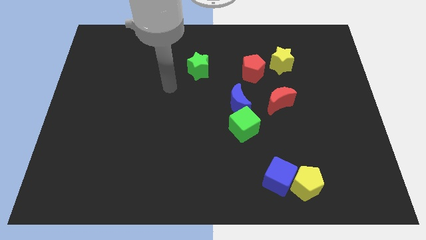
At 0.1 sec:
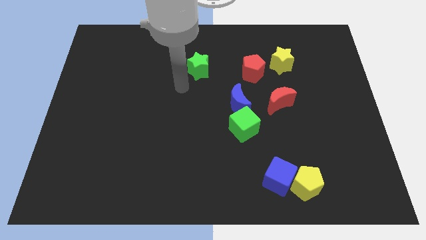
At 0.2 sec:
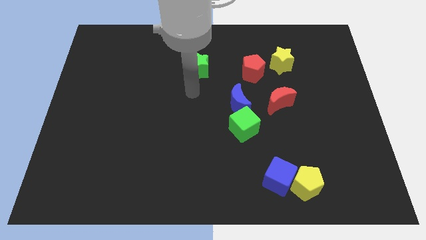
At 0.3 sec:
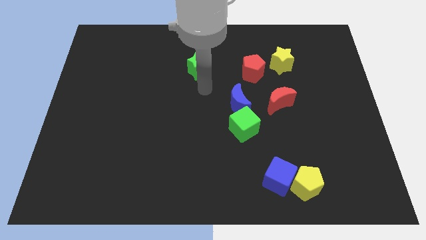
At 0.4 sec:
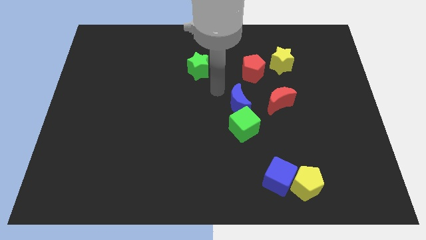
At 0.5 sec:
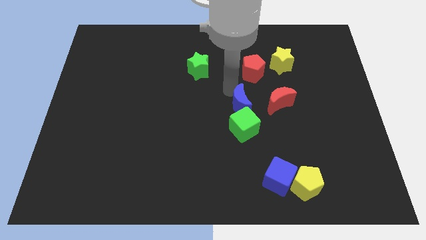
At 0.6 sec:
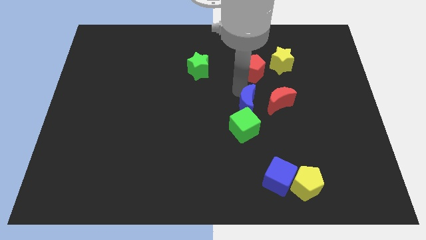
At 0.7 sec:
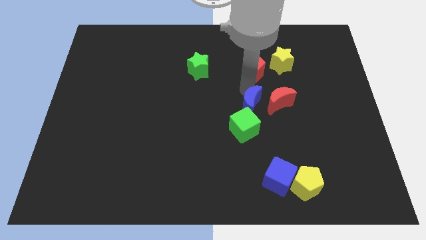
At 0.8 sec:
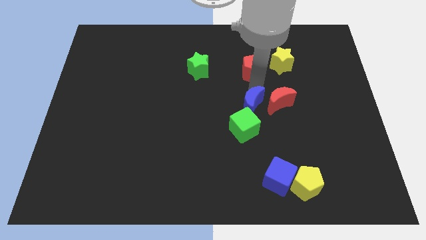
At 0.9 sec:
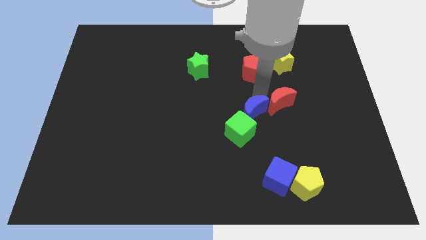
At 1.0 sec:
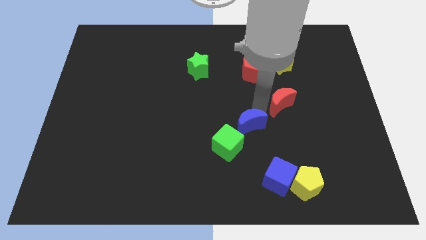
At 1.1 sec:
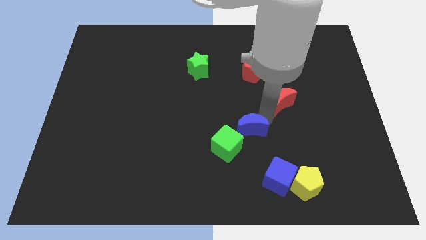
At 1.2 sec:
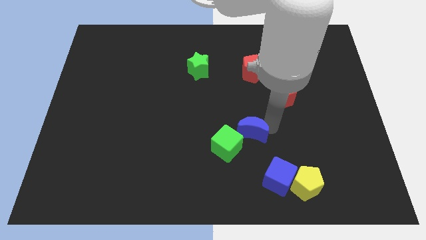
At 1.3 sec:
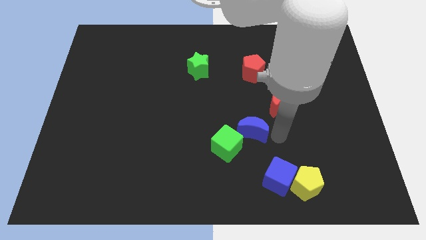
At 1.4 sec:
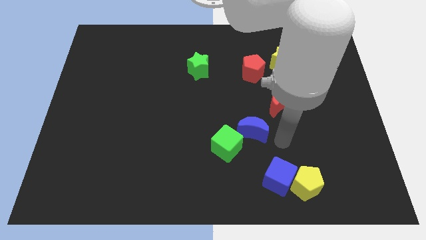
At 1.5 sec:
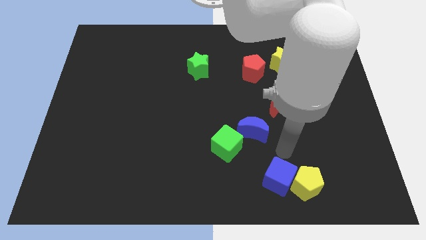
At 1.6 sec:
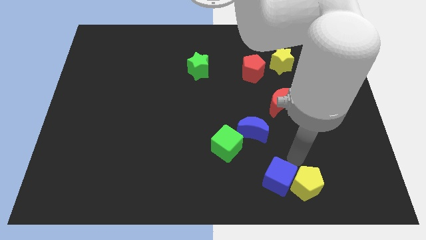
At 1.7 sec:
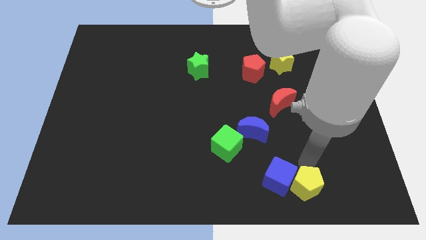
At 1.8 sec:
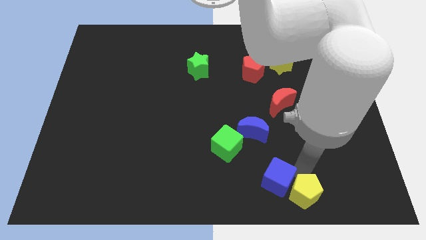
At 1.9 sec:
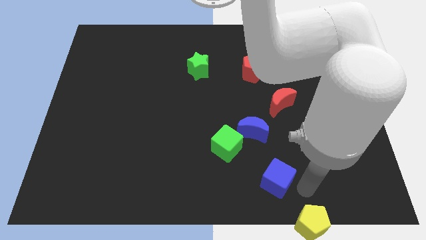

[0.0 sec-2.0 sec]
move the blue cube away from the yellow pentagon

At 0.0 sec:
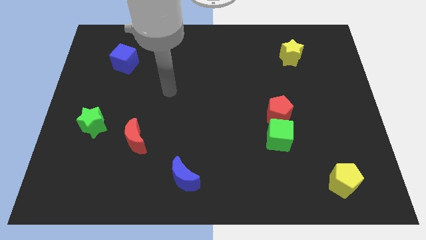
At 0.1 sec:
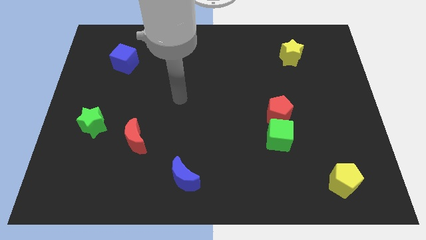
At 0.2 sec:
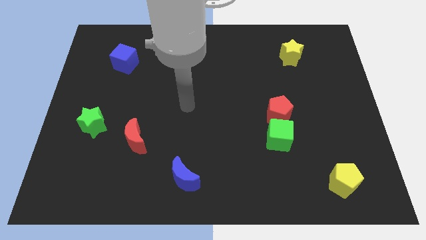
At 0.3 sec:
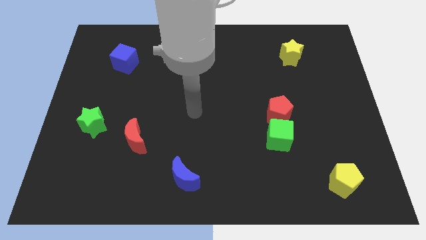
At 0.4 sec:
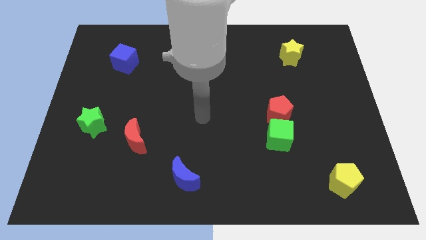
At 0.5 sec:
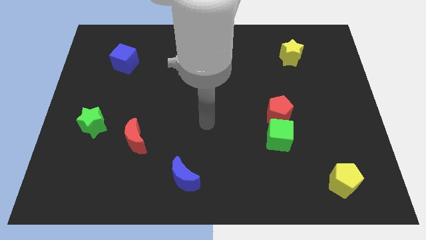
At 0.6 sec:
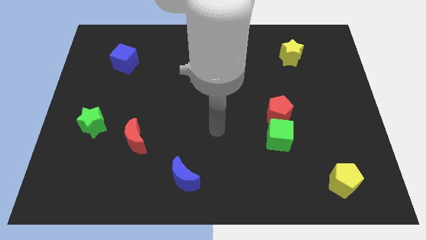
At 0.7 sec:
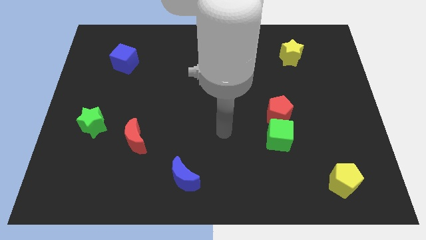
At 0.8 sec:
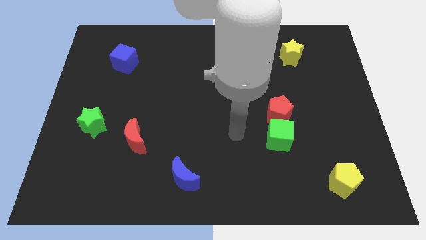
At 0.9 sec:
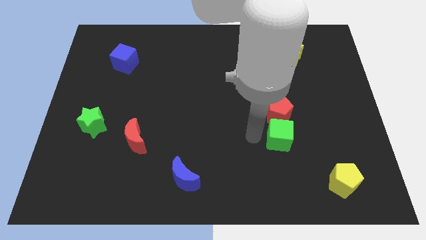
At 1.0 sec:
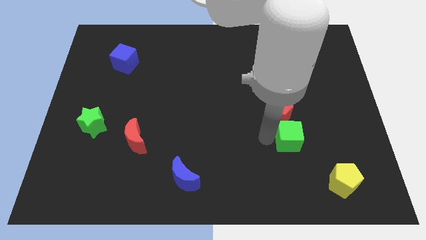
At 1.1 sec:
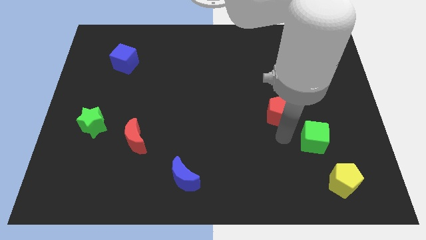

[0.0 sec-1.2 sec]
separate the red pentagon from the green cube

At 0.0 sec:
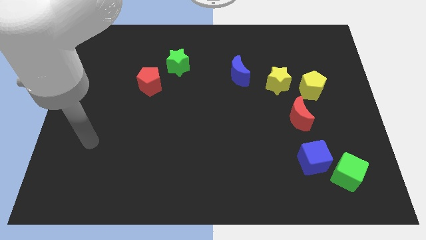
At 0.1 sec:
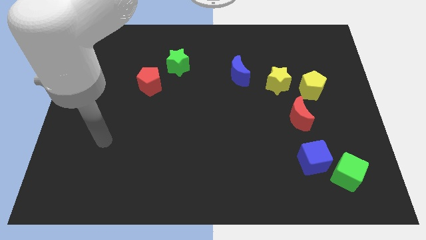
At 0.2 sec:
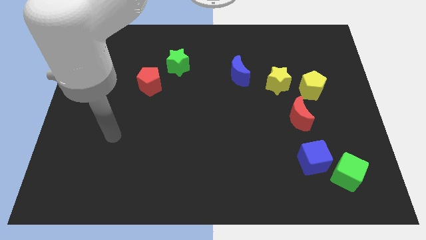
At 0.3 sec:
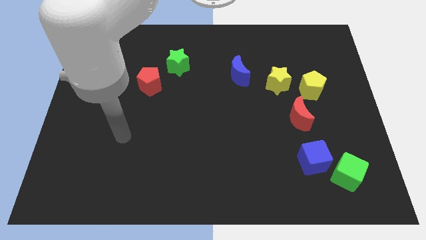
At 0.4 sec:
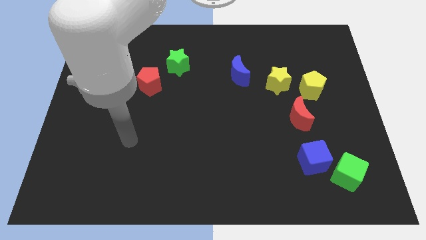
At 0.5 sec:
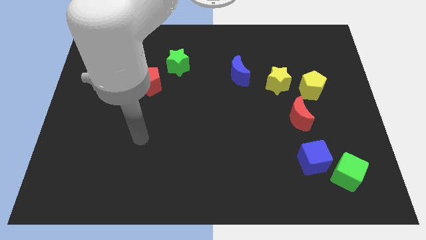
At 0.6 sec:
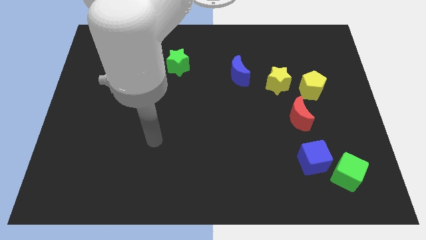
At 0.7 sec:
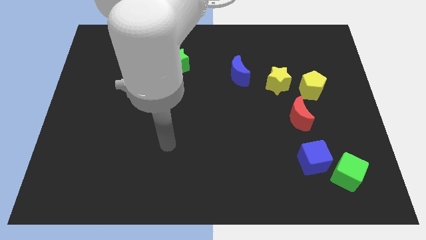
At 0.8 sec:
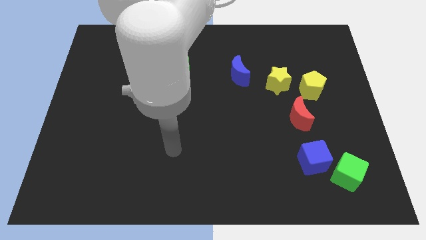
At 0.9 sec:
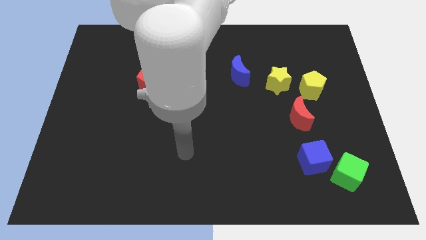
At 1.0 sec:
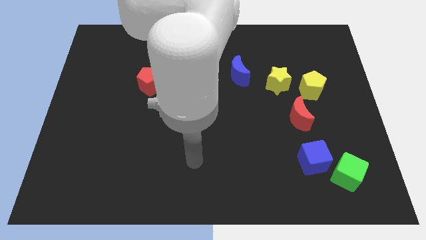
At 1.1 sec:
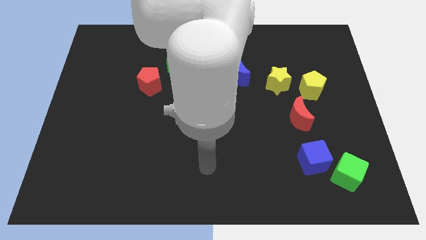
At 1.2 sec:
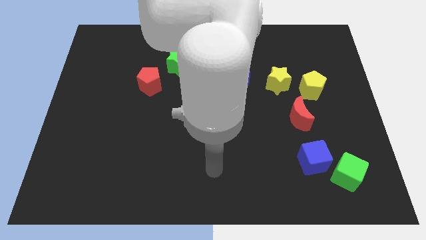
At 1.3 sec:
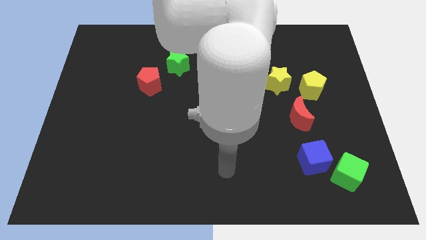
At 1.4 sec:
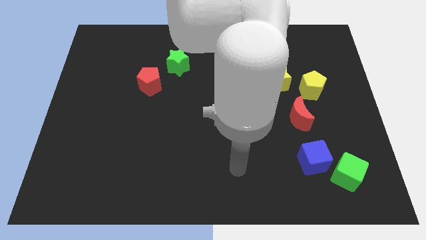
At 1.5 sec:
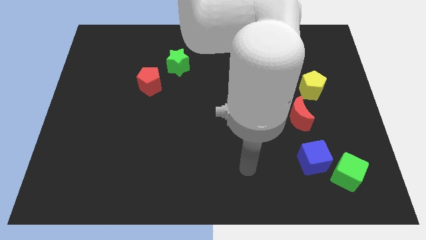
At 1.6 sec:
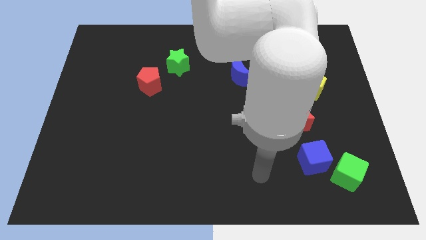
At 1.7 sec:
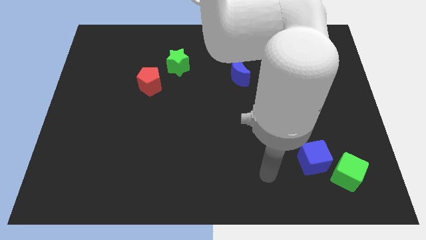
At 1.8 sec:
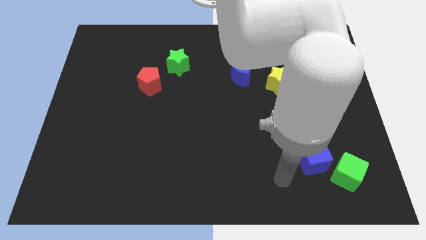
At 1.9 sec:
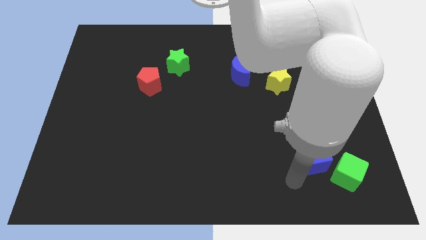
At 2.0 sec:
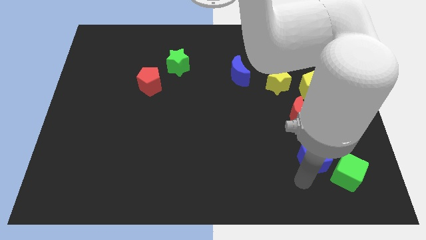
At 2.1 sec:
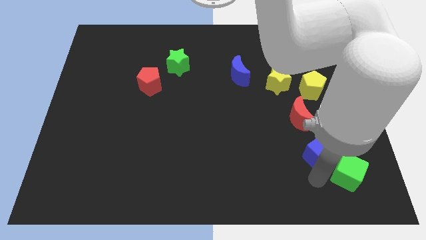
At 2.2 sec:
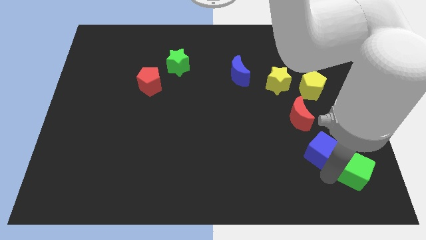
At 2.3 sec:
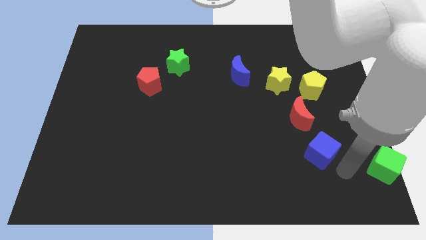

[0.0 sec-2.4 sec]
pull the blue cube apart from the green cube

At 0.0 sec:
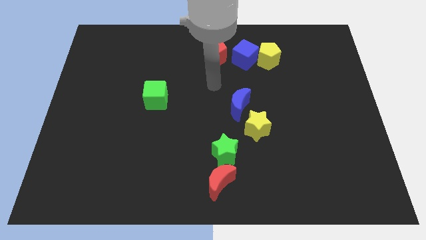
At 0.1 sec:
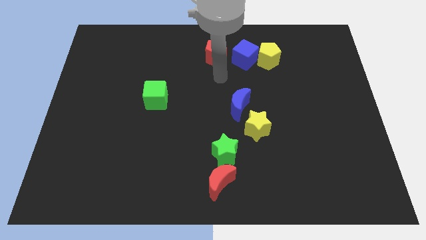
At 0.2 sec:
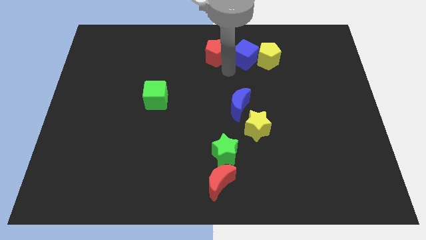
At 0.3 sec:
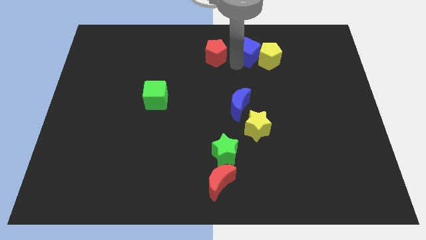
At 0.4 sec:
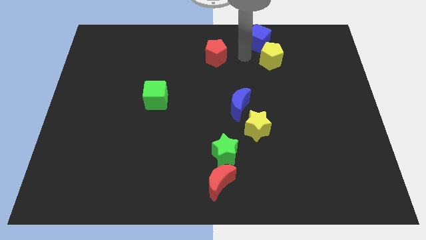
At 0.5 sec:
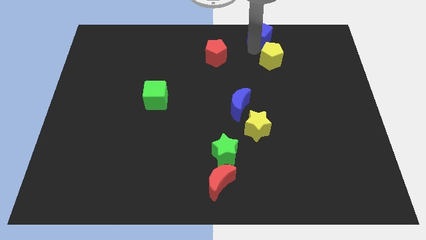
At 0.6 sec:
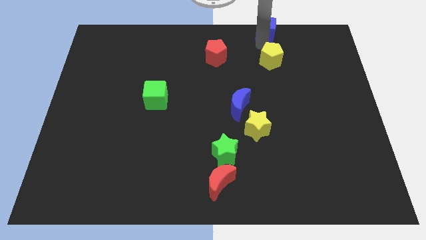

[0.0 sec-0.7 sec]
move the yellow pentagon away from the blue cube

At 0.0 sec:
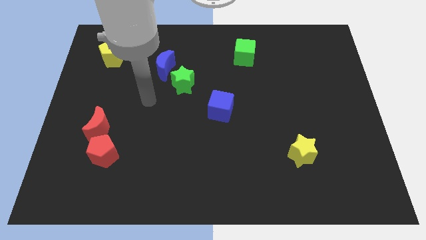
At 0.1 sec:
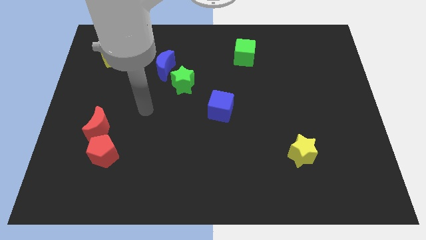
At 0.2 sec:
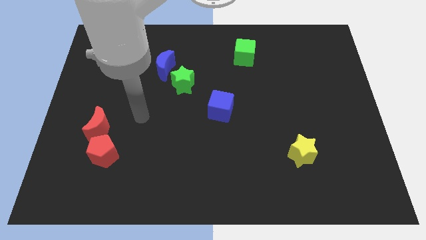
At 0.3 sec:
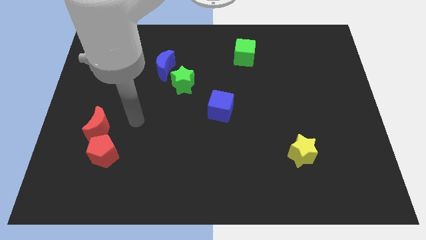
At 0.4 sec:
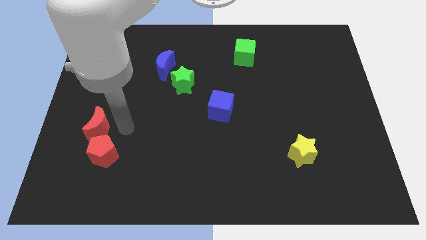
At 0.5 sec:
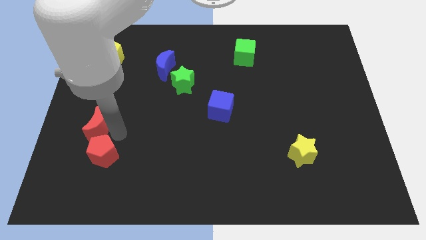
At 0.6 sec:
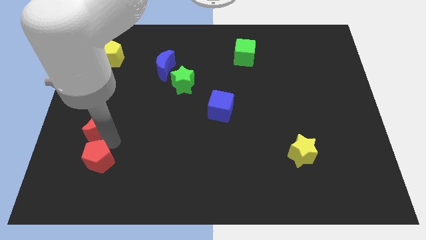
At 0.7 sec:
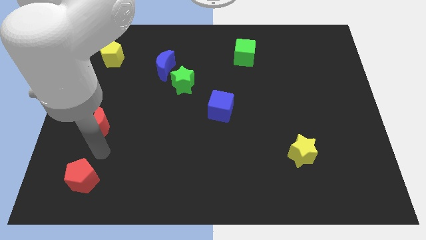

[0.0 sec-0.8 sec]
separate the red moon from the red pentagon

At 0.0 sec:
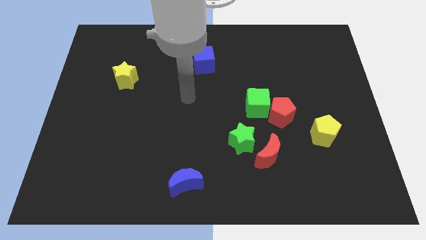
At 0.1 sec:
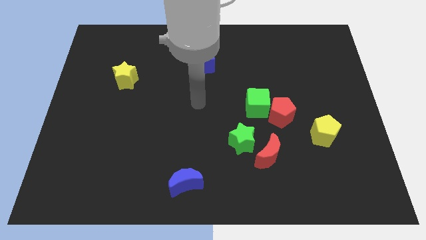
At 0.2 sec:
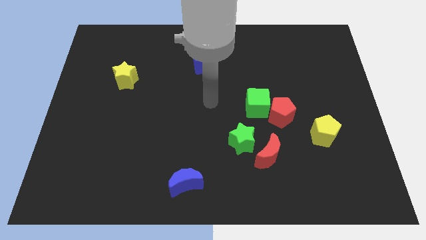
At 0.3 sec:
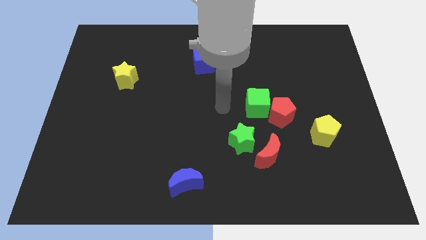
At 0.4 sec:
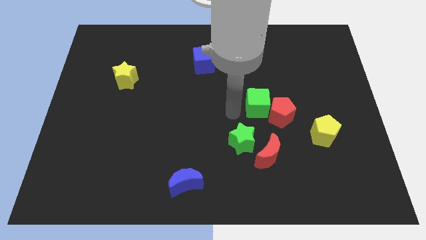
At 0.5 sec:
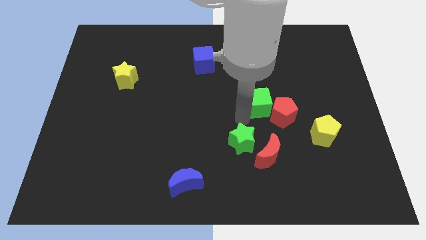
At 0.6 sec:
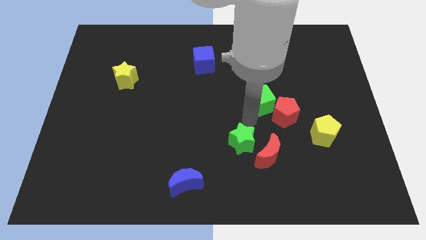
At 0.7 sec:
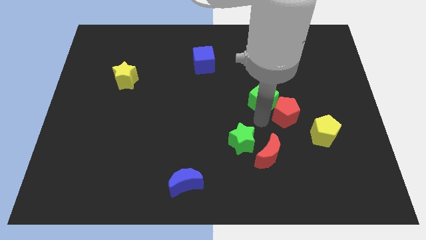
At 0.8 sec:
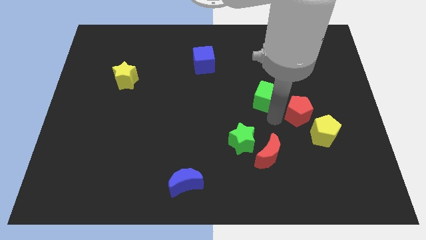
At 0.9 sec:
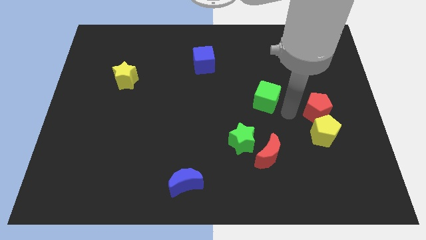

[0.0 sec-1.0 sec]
pull the green cube apart from the red pentagon

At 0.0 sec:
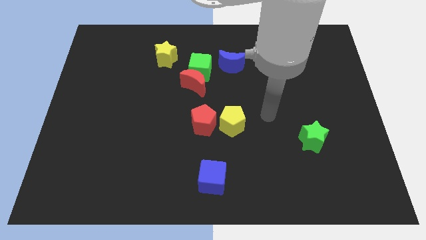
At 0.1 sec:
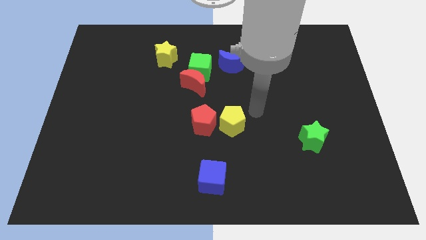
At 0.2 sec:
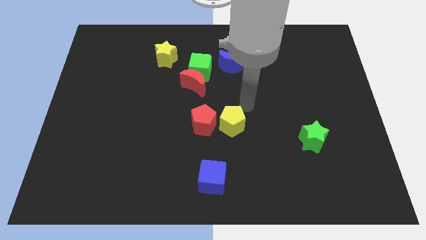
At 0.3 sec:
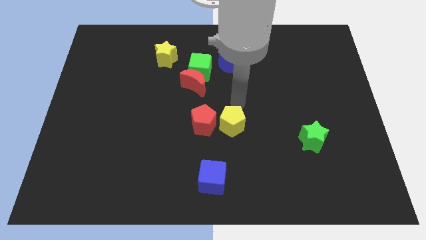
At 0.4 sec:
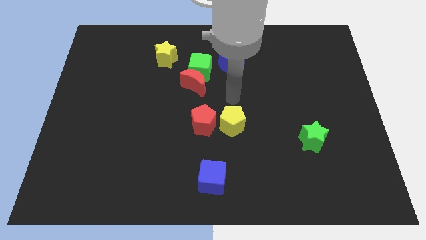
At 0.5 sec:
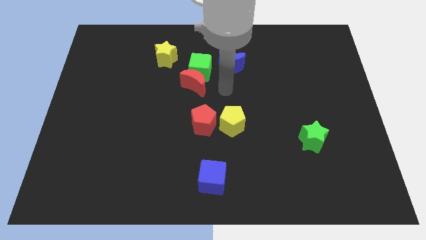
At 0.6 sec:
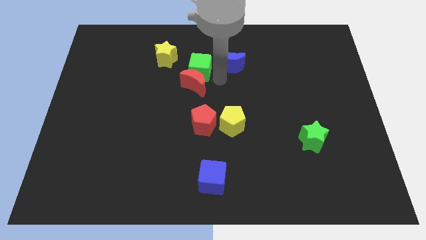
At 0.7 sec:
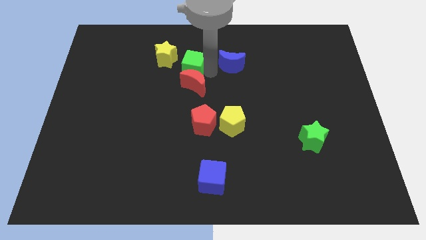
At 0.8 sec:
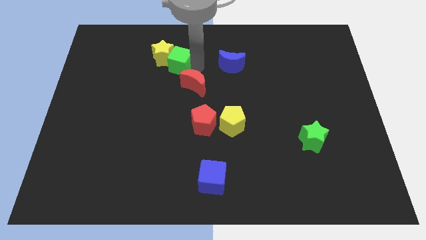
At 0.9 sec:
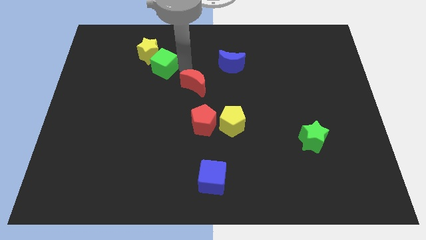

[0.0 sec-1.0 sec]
separate the red moon from the green cube

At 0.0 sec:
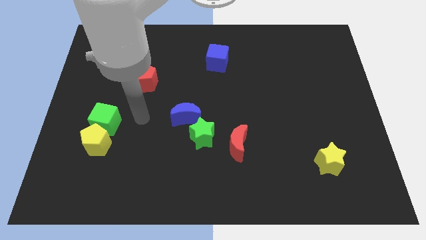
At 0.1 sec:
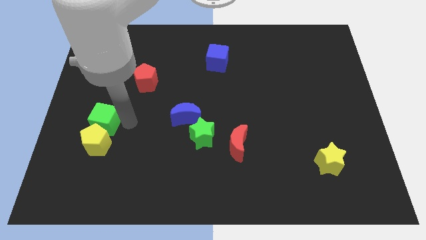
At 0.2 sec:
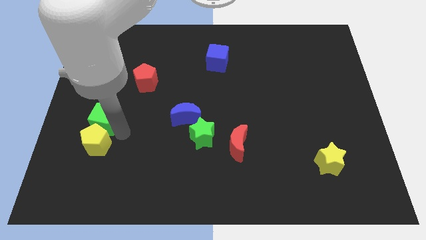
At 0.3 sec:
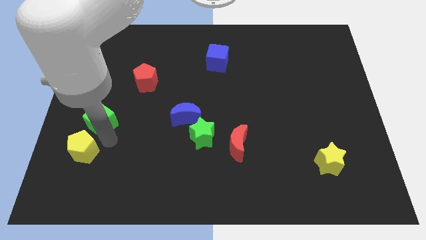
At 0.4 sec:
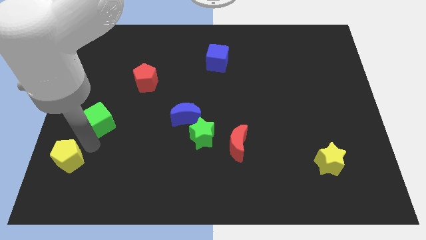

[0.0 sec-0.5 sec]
pull the green cube apart from the yellow pentagon
